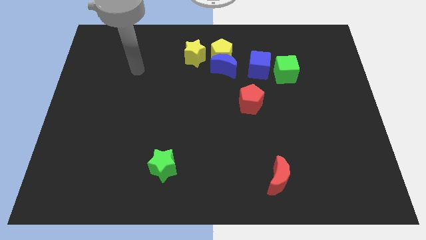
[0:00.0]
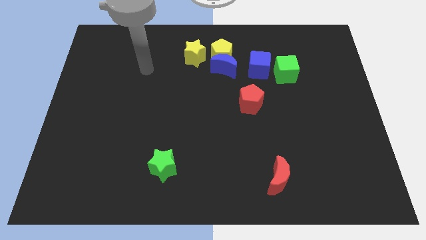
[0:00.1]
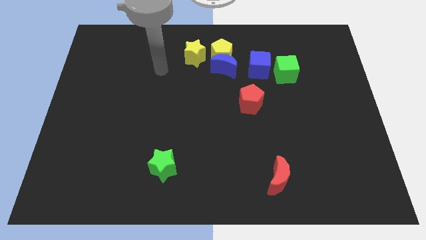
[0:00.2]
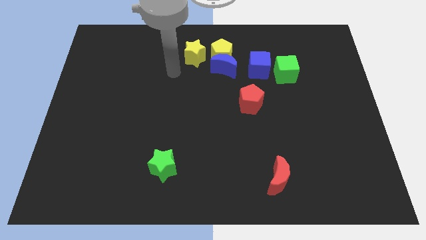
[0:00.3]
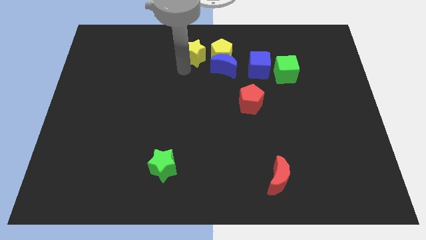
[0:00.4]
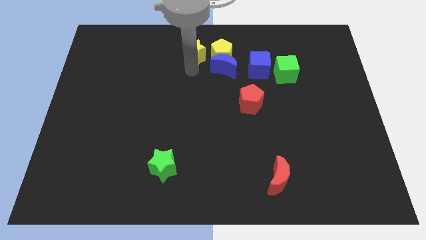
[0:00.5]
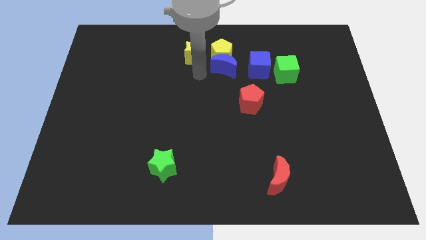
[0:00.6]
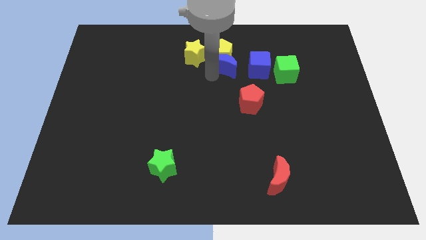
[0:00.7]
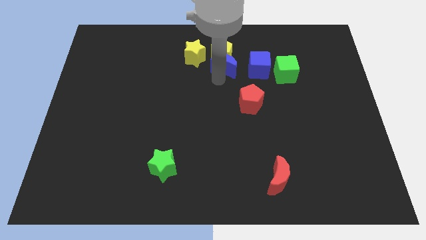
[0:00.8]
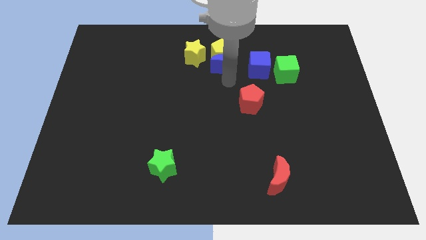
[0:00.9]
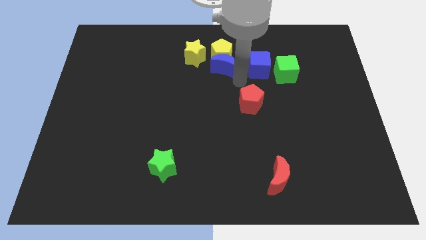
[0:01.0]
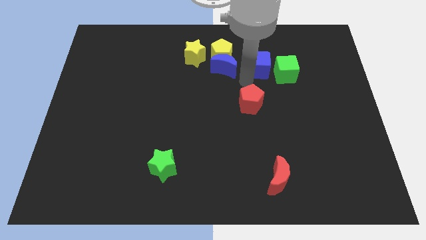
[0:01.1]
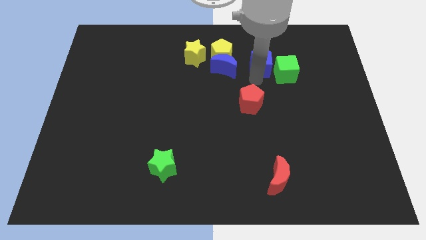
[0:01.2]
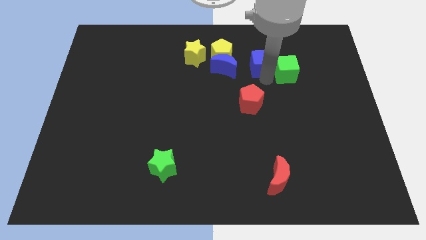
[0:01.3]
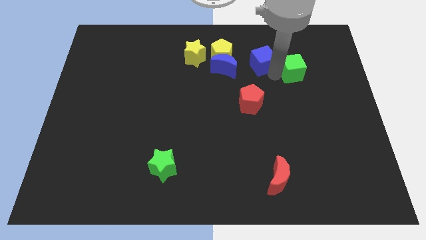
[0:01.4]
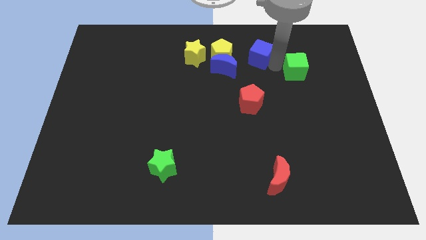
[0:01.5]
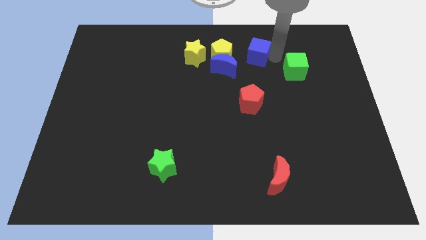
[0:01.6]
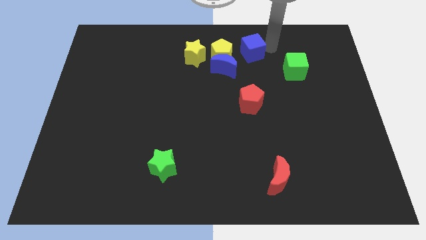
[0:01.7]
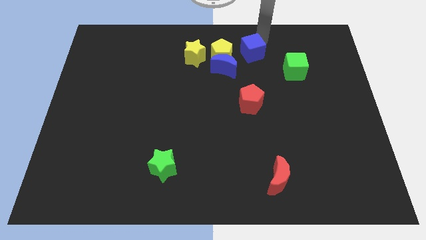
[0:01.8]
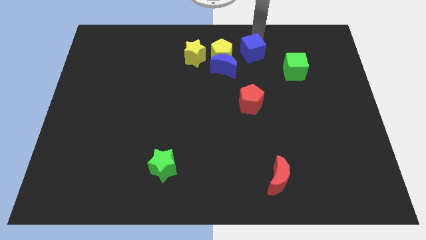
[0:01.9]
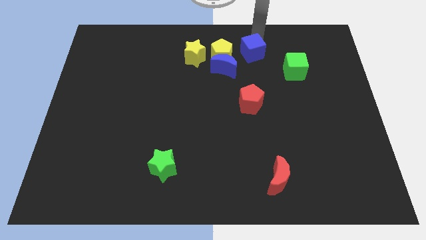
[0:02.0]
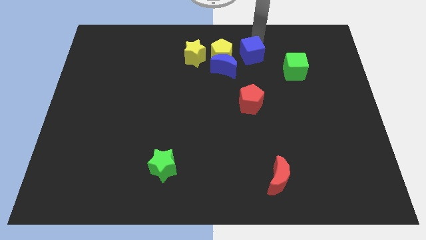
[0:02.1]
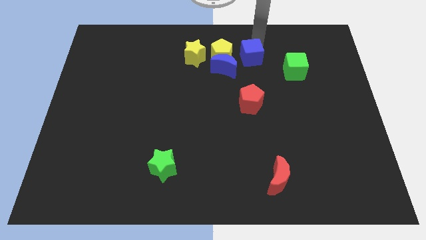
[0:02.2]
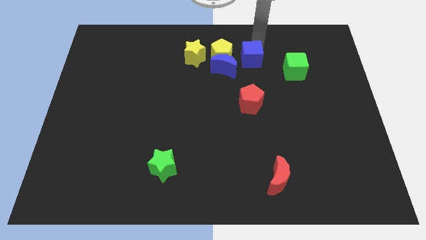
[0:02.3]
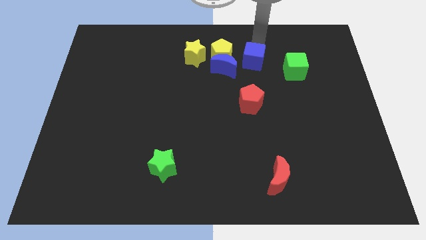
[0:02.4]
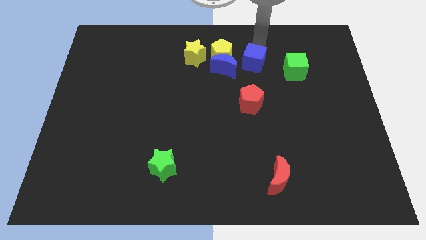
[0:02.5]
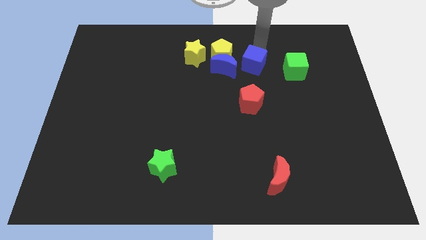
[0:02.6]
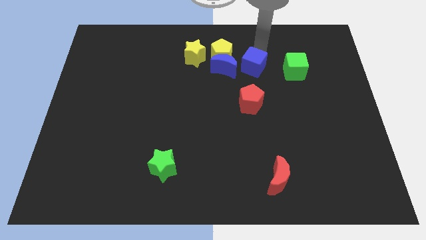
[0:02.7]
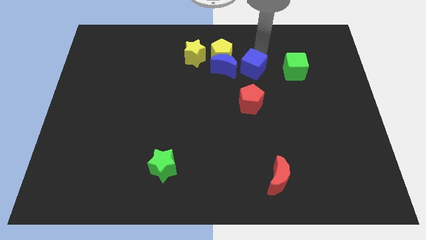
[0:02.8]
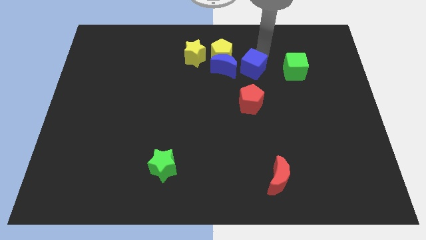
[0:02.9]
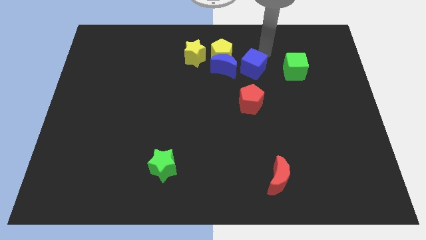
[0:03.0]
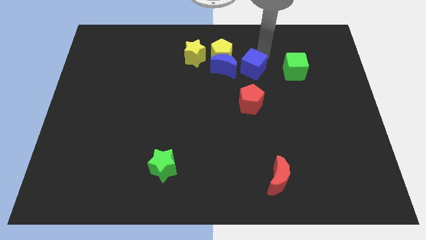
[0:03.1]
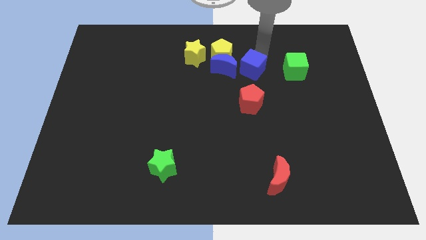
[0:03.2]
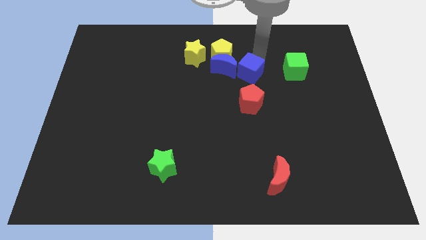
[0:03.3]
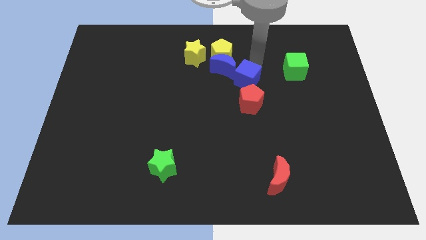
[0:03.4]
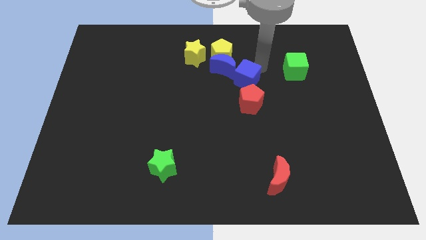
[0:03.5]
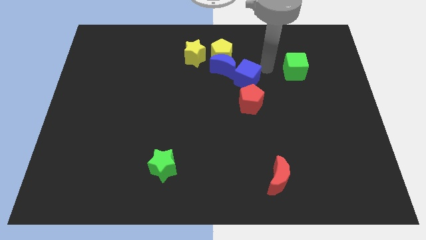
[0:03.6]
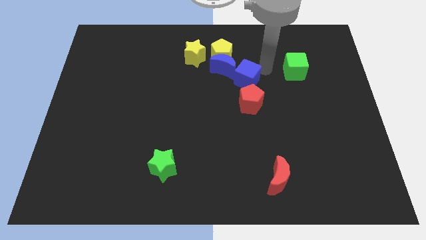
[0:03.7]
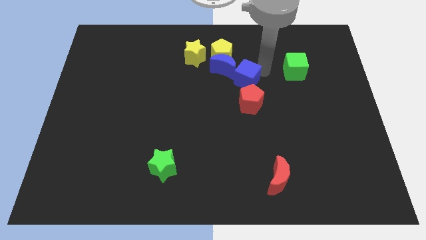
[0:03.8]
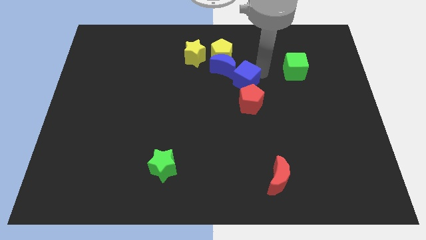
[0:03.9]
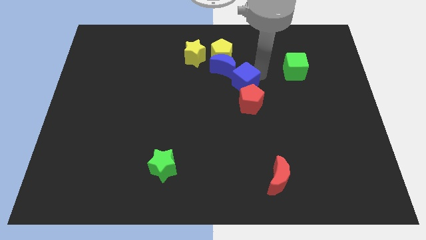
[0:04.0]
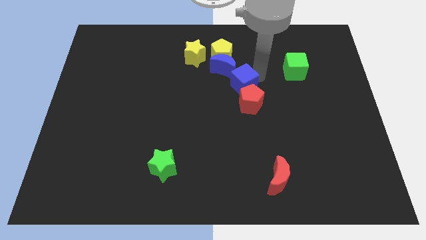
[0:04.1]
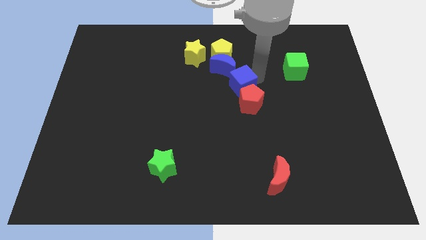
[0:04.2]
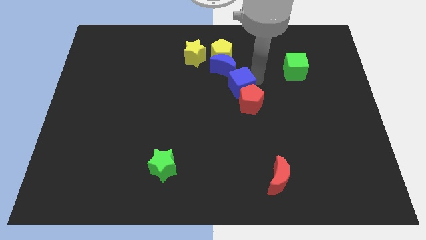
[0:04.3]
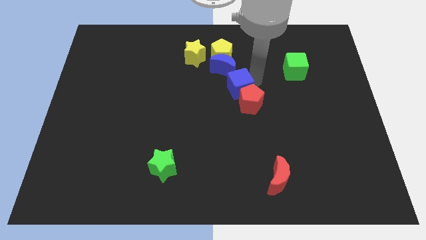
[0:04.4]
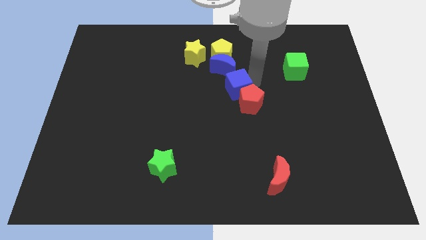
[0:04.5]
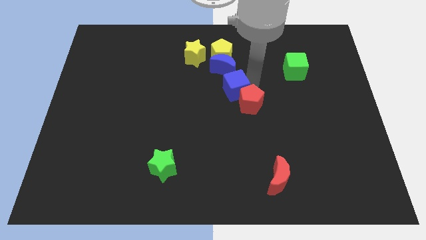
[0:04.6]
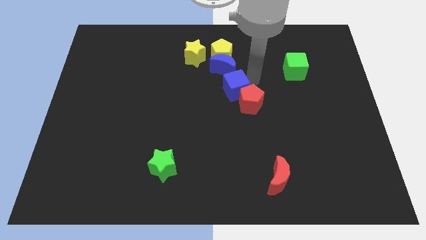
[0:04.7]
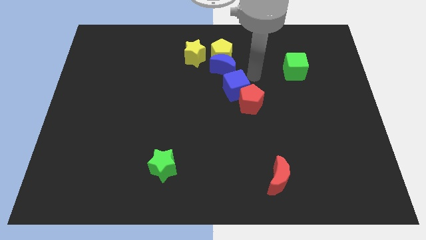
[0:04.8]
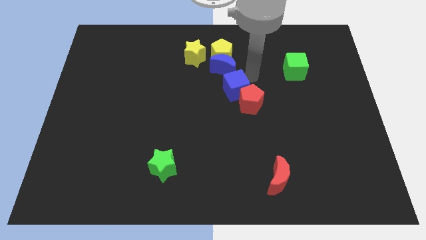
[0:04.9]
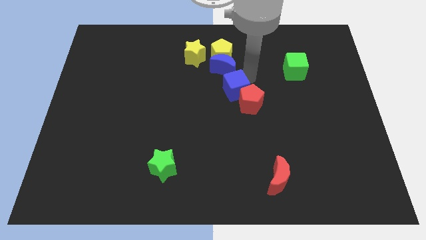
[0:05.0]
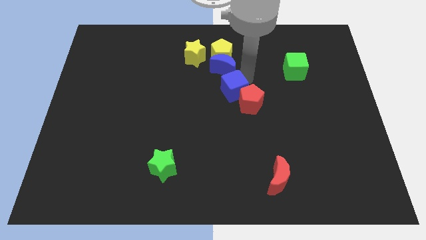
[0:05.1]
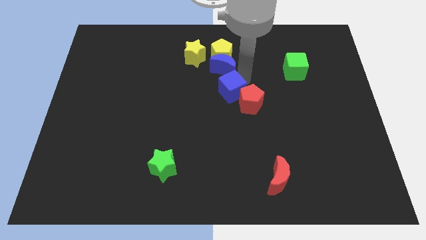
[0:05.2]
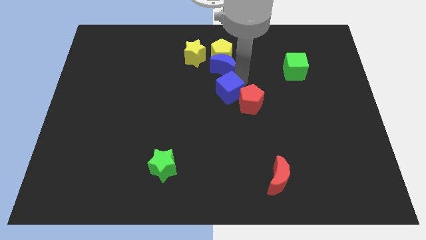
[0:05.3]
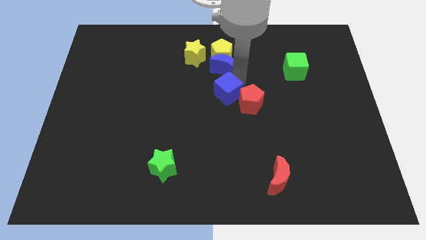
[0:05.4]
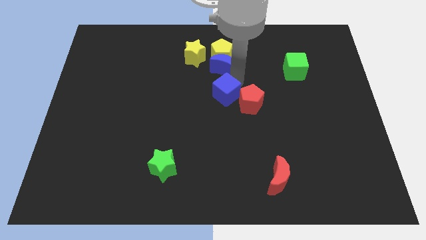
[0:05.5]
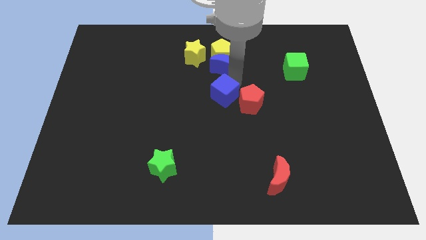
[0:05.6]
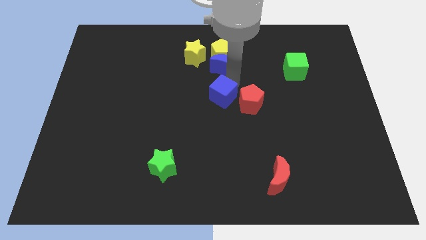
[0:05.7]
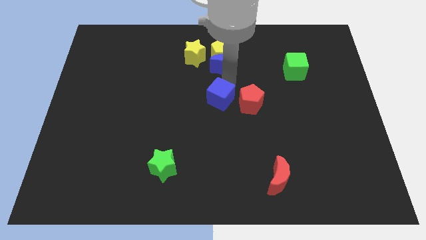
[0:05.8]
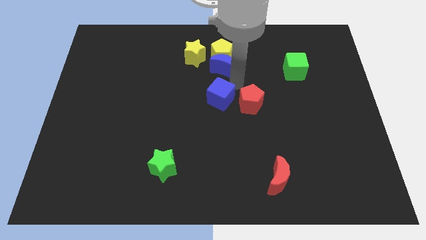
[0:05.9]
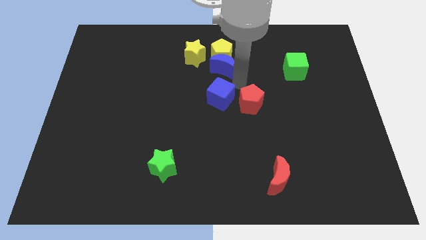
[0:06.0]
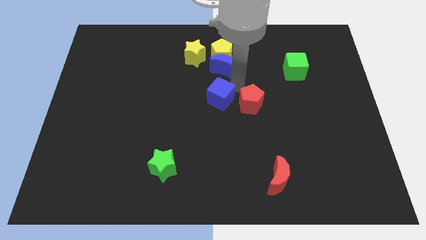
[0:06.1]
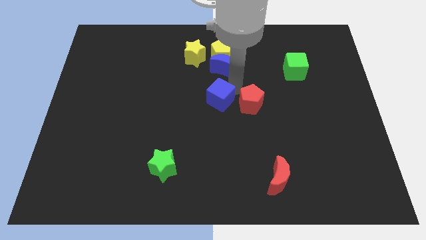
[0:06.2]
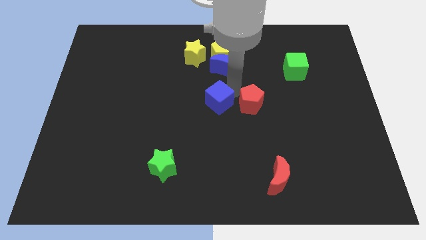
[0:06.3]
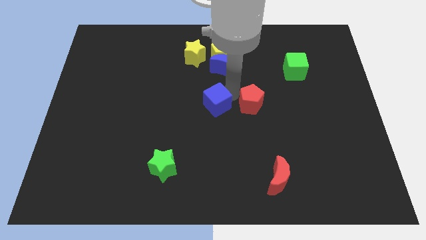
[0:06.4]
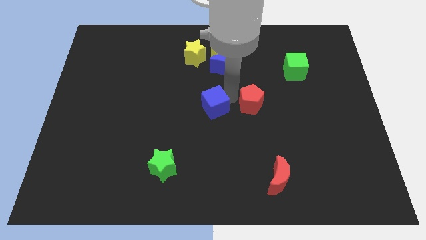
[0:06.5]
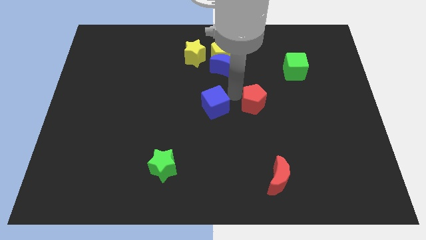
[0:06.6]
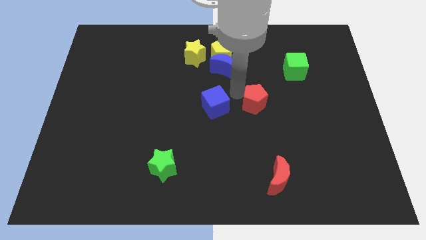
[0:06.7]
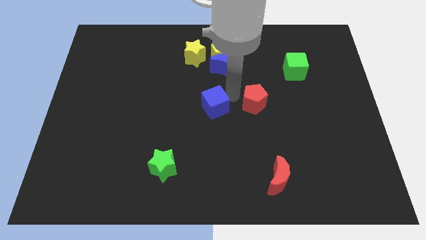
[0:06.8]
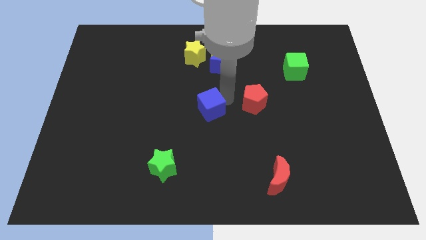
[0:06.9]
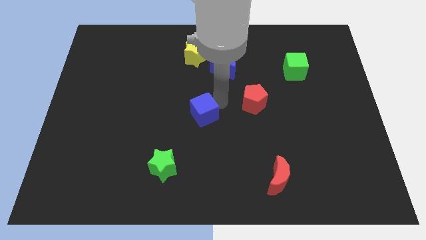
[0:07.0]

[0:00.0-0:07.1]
push the blue cube down and then to the left

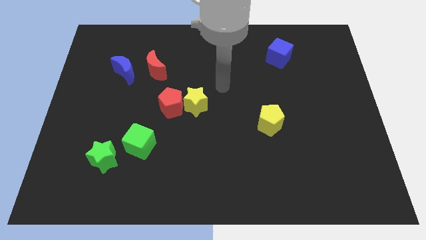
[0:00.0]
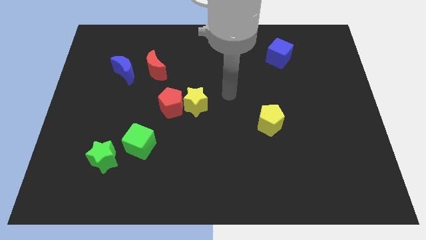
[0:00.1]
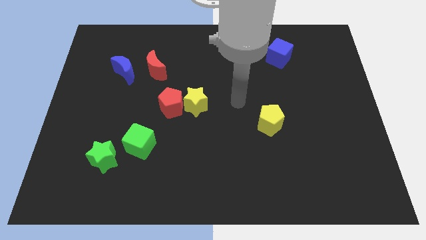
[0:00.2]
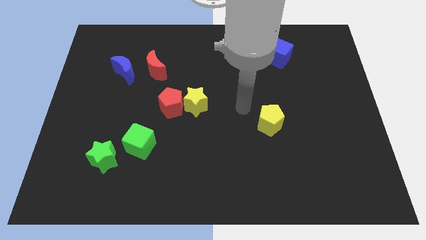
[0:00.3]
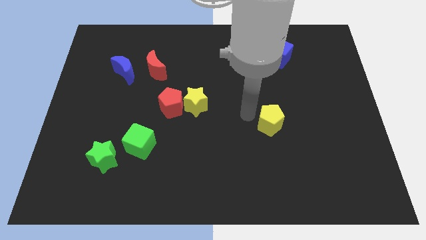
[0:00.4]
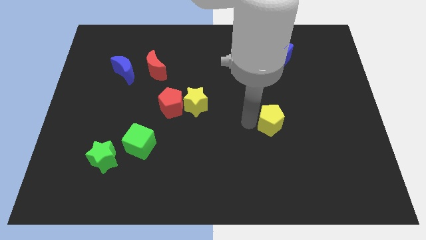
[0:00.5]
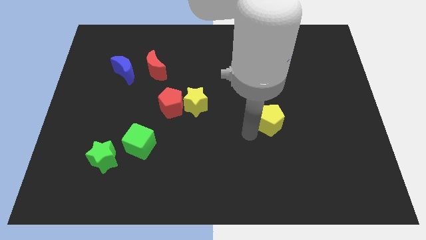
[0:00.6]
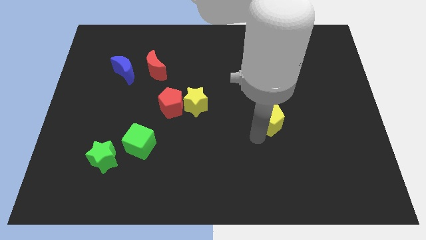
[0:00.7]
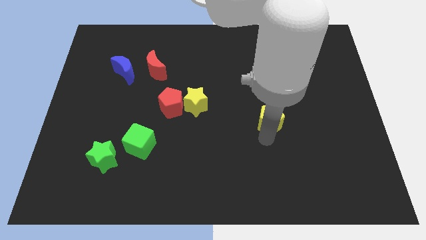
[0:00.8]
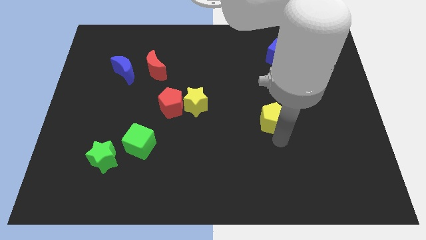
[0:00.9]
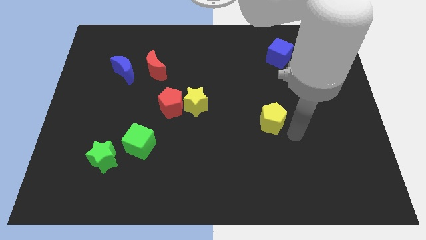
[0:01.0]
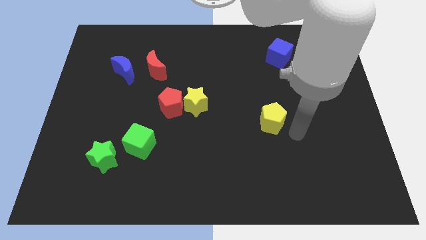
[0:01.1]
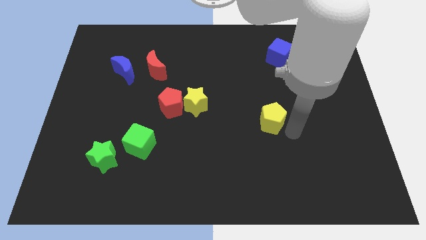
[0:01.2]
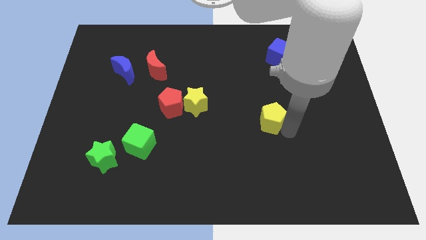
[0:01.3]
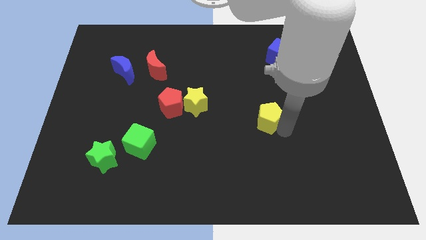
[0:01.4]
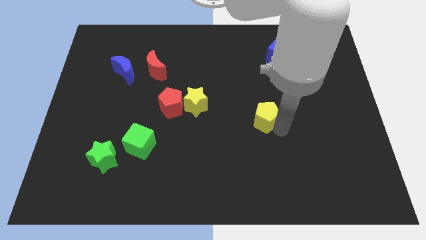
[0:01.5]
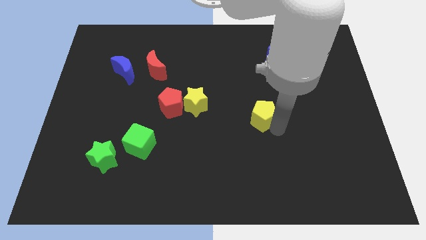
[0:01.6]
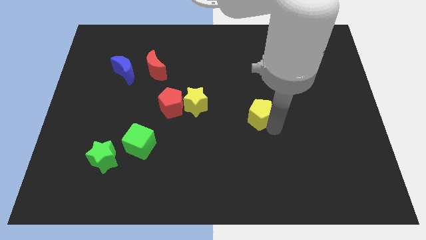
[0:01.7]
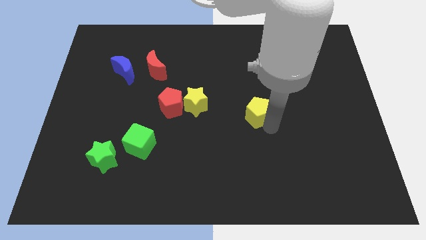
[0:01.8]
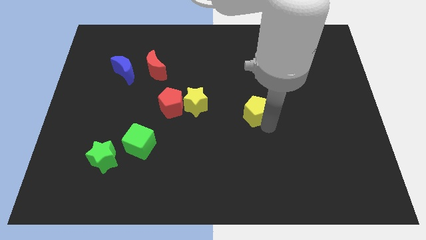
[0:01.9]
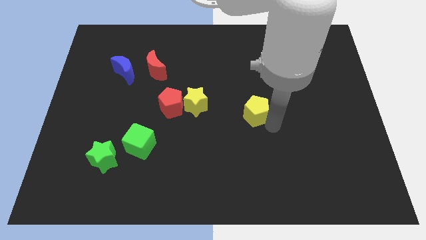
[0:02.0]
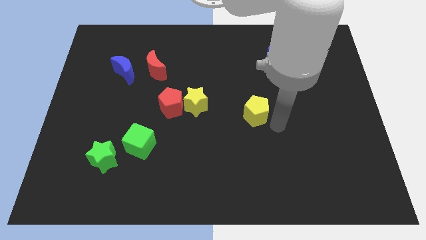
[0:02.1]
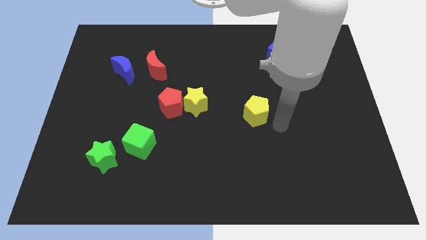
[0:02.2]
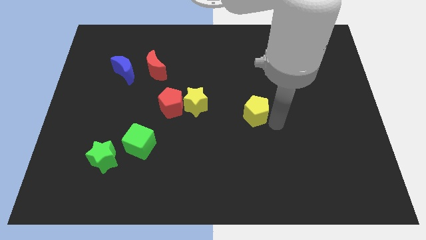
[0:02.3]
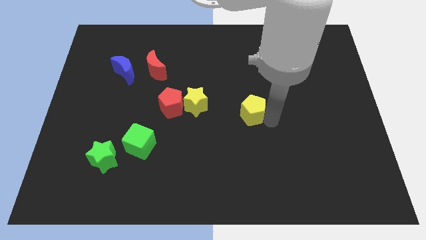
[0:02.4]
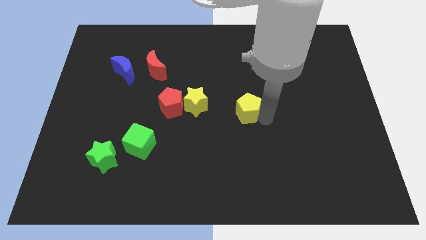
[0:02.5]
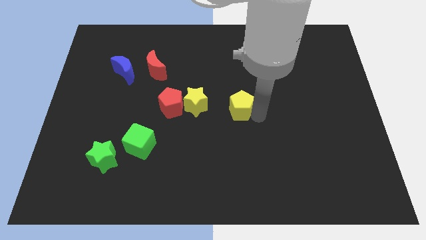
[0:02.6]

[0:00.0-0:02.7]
slide the yellow pentagon a bit up and then left
